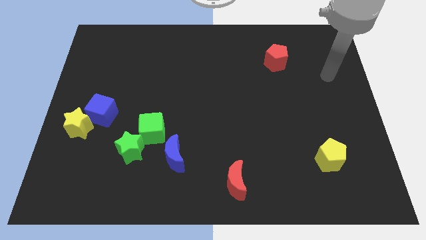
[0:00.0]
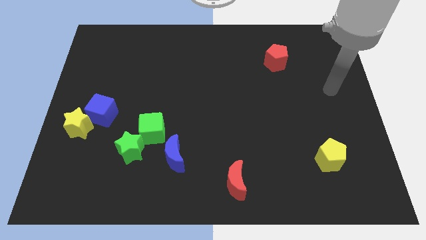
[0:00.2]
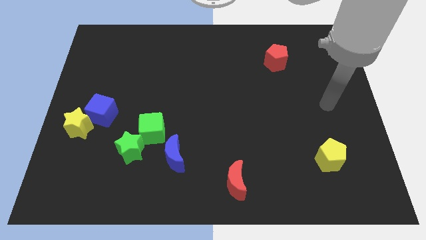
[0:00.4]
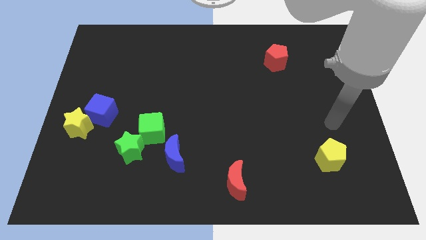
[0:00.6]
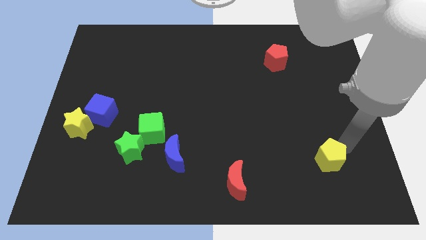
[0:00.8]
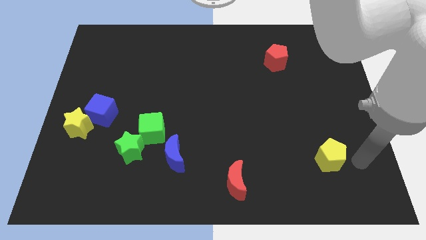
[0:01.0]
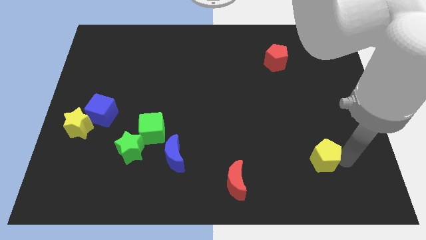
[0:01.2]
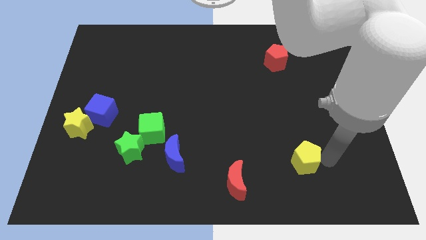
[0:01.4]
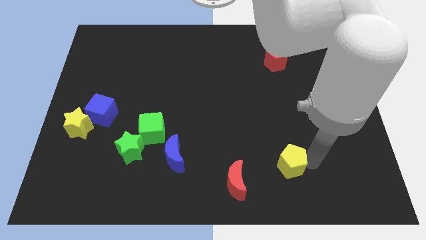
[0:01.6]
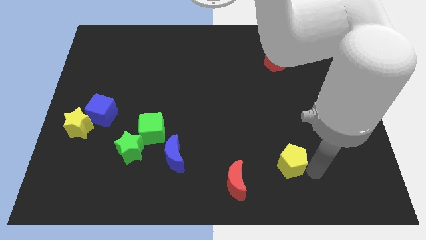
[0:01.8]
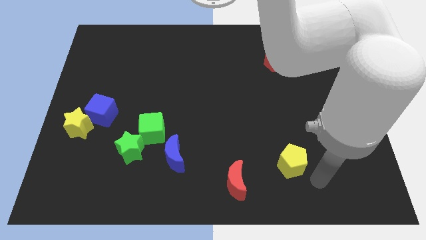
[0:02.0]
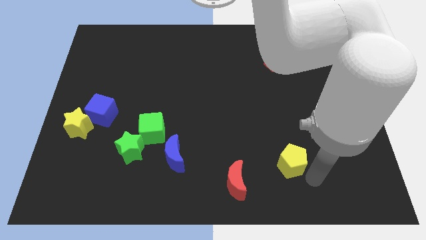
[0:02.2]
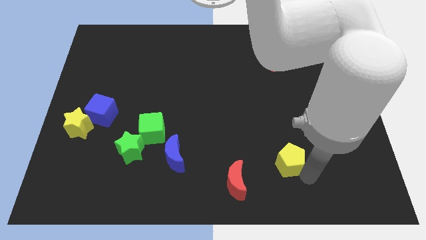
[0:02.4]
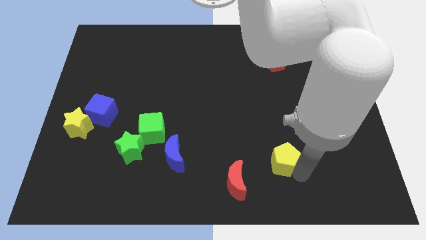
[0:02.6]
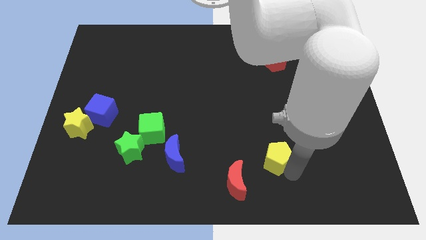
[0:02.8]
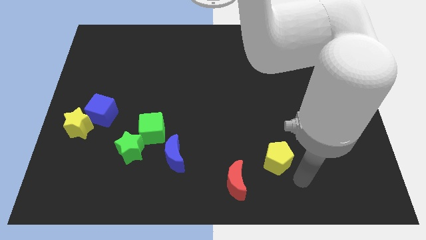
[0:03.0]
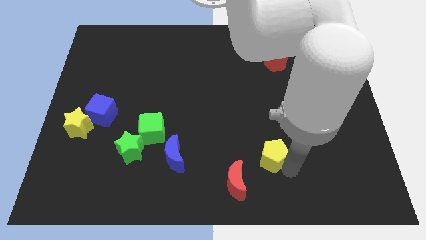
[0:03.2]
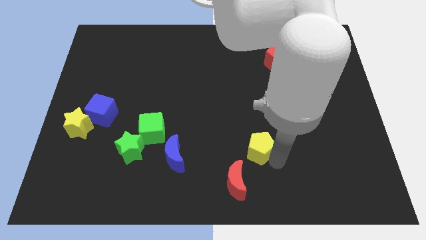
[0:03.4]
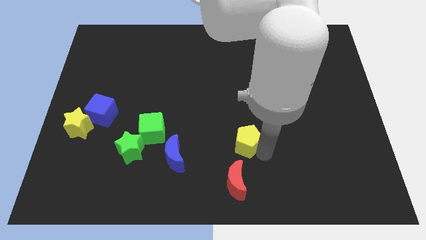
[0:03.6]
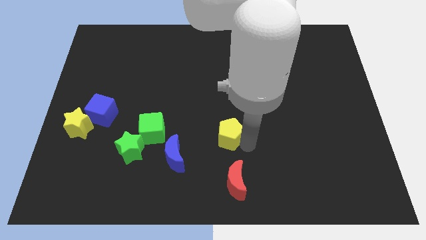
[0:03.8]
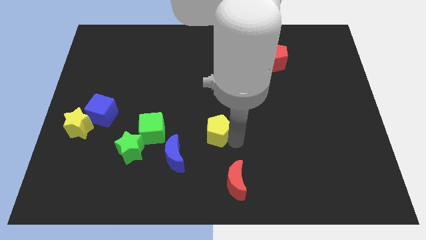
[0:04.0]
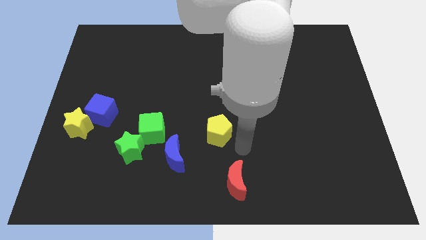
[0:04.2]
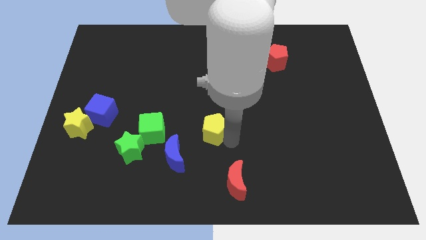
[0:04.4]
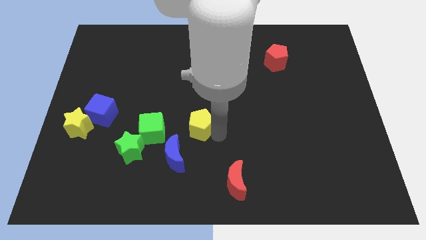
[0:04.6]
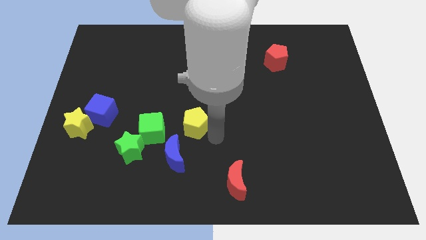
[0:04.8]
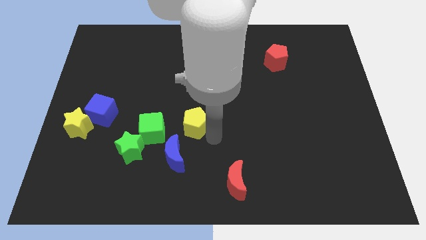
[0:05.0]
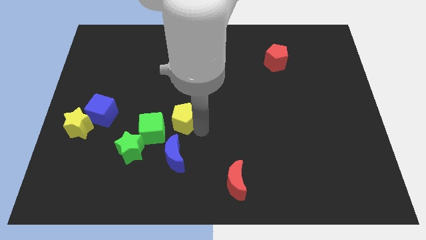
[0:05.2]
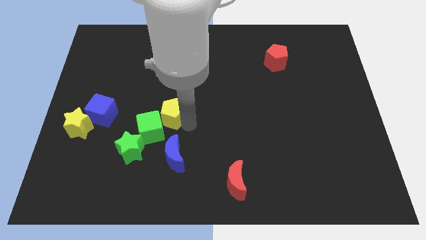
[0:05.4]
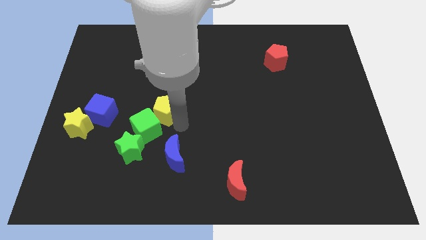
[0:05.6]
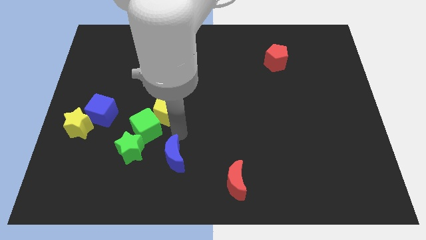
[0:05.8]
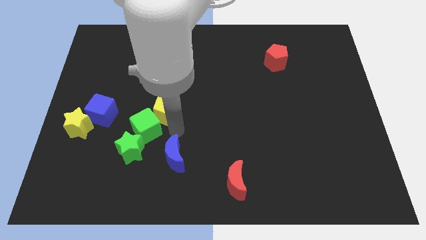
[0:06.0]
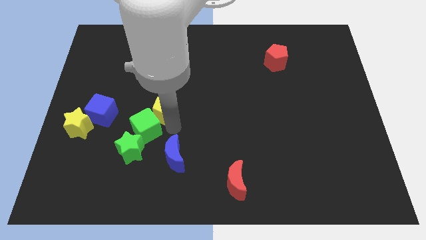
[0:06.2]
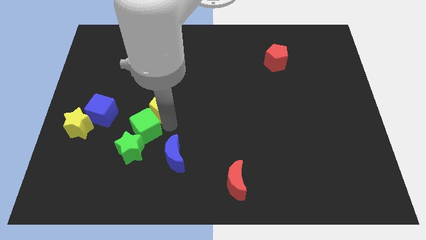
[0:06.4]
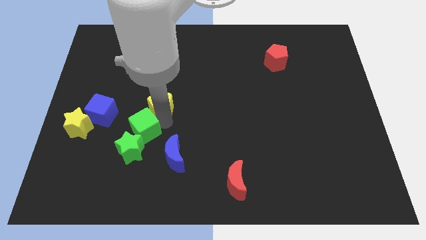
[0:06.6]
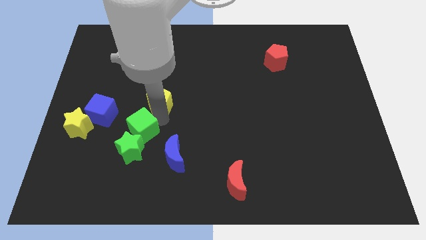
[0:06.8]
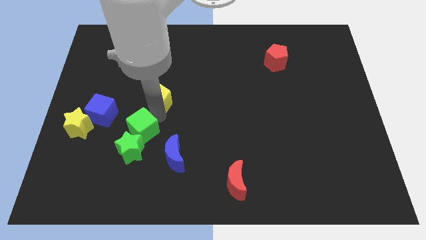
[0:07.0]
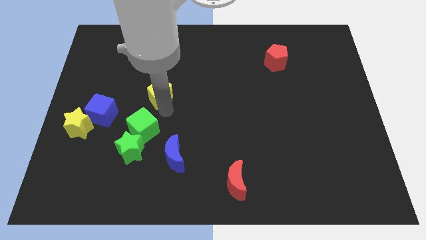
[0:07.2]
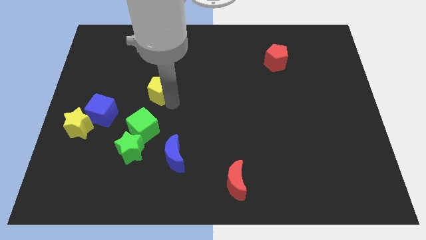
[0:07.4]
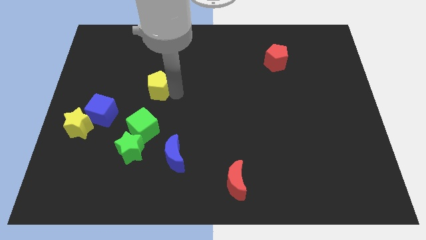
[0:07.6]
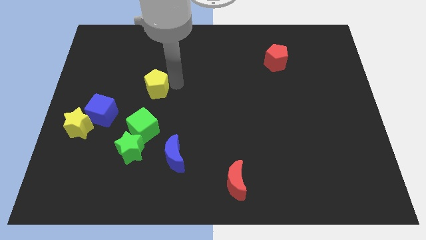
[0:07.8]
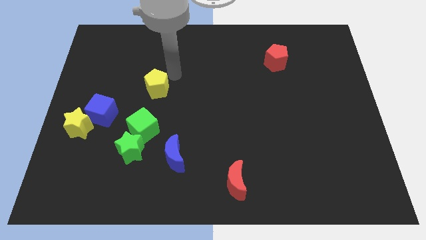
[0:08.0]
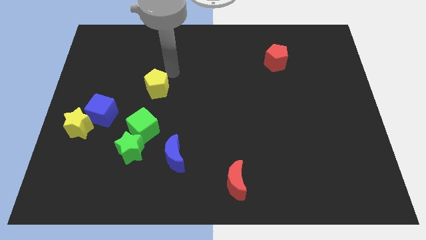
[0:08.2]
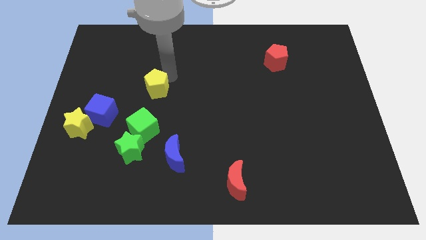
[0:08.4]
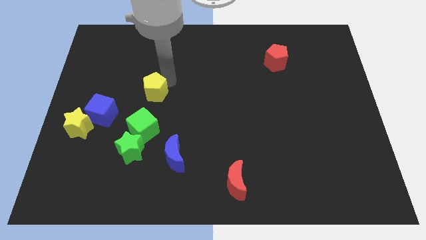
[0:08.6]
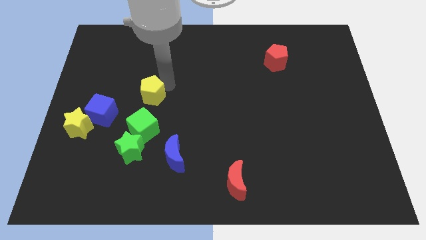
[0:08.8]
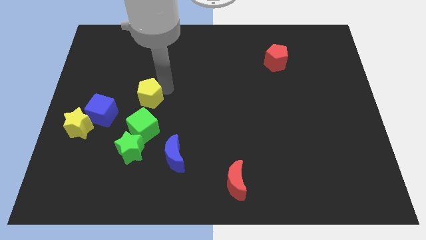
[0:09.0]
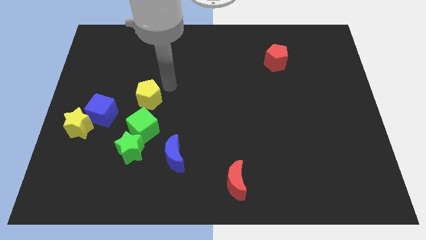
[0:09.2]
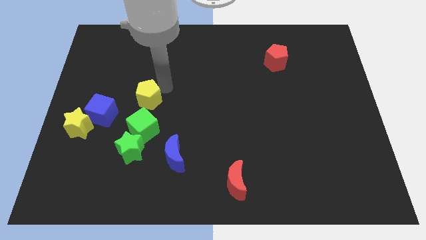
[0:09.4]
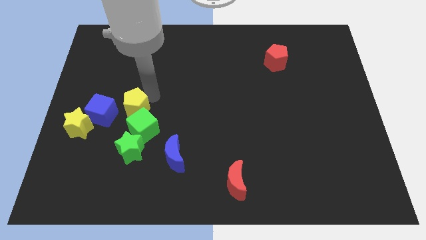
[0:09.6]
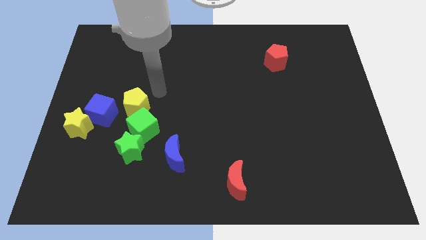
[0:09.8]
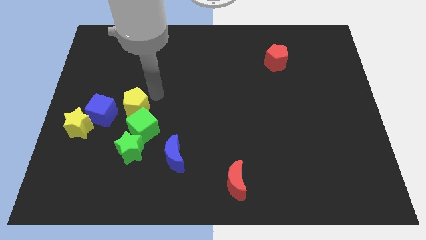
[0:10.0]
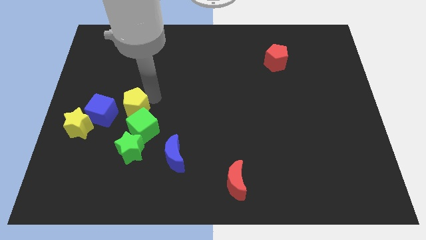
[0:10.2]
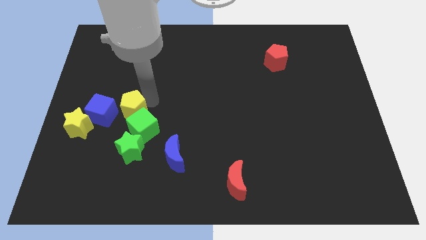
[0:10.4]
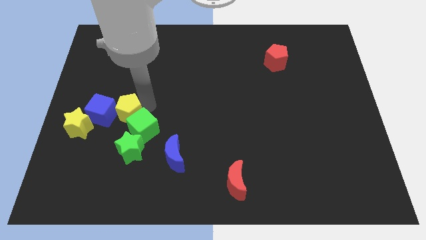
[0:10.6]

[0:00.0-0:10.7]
put the yellow pentagon to the left of the green cube

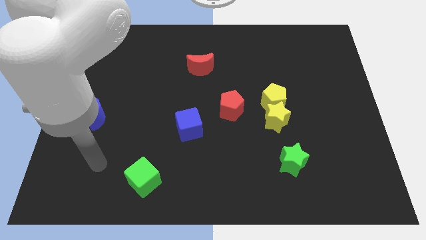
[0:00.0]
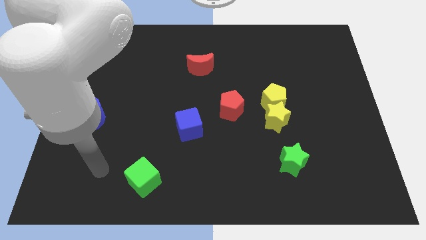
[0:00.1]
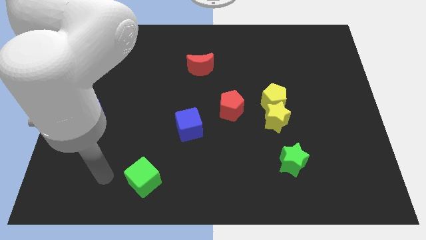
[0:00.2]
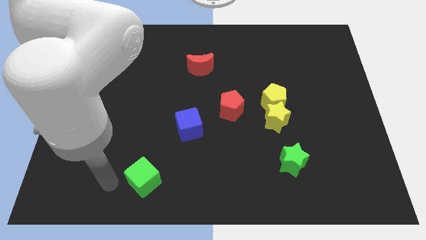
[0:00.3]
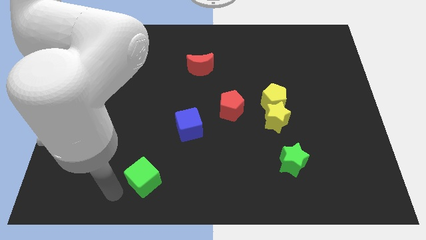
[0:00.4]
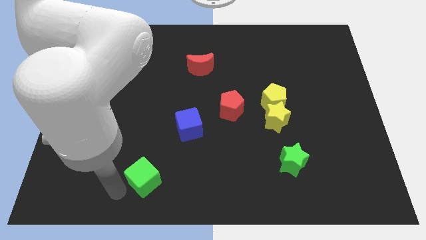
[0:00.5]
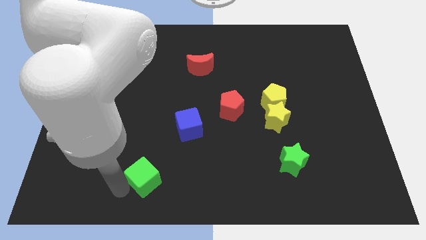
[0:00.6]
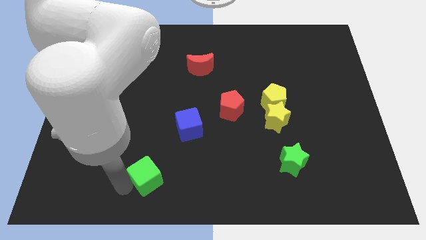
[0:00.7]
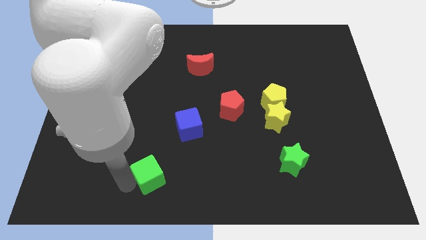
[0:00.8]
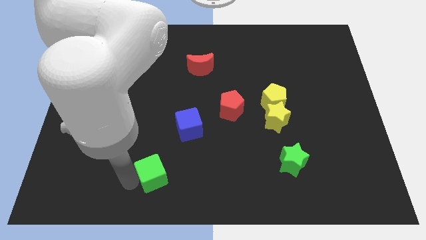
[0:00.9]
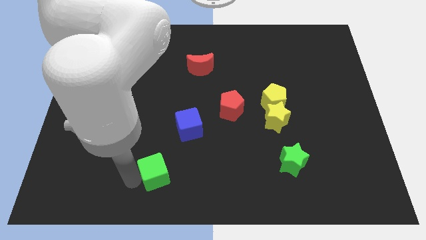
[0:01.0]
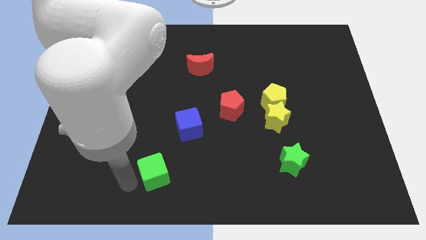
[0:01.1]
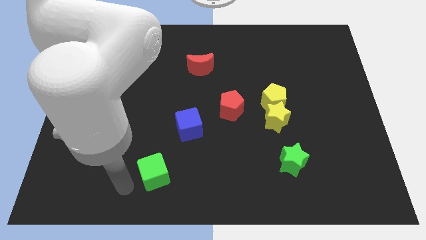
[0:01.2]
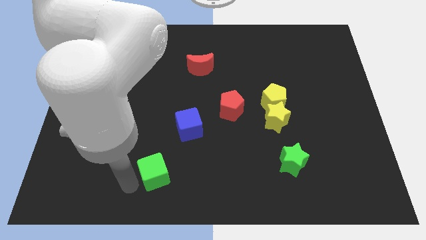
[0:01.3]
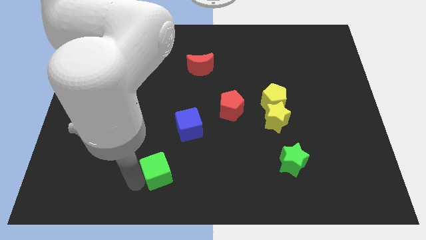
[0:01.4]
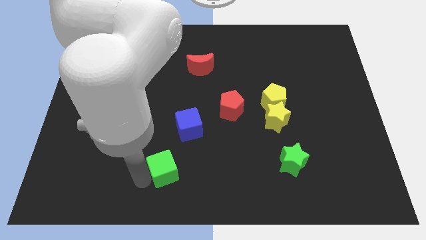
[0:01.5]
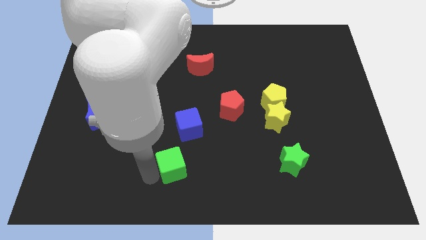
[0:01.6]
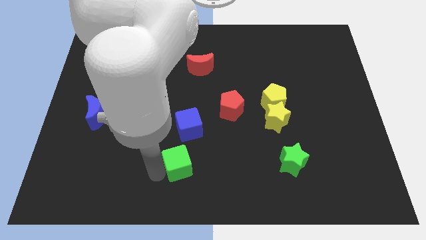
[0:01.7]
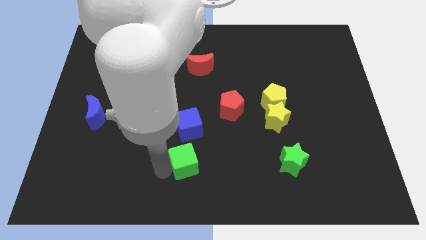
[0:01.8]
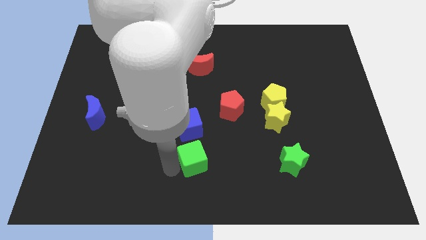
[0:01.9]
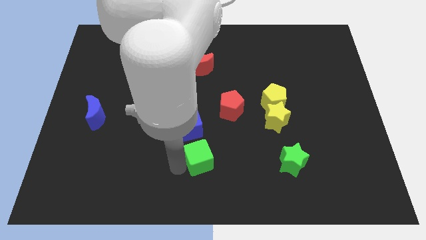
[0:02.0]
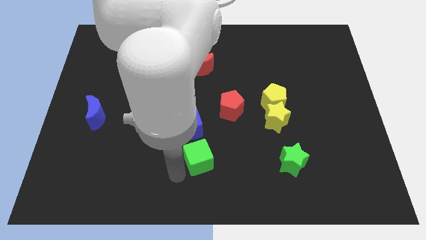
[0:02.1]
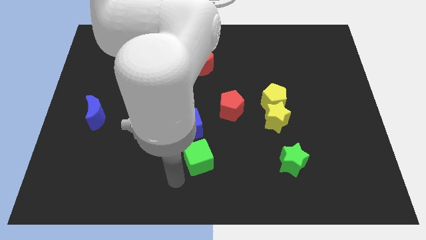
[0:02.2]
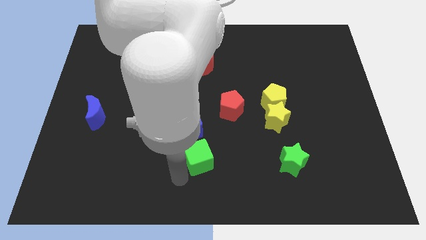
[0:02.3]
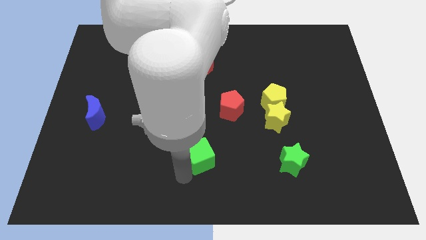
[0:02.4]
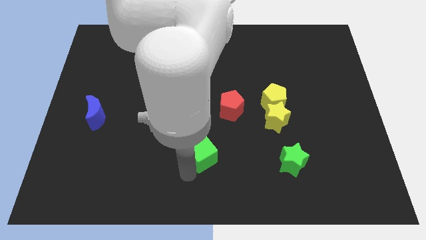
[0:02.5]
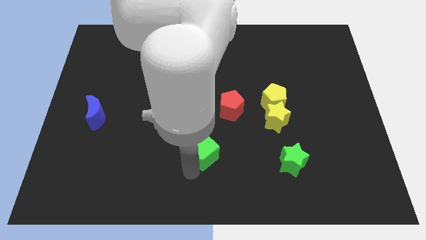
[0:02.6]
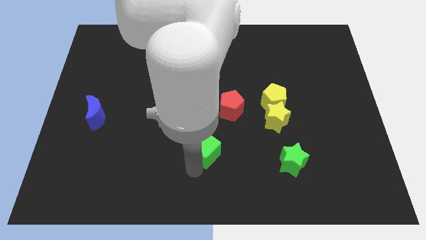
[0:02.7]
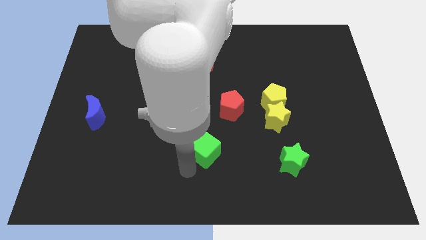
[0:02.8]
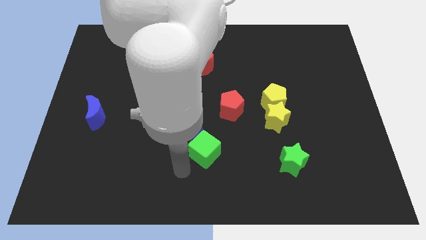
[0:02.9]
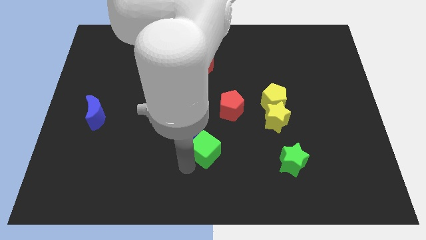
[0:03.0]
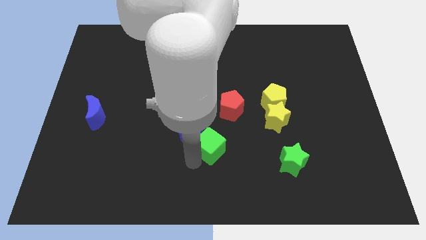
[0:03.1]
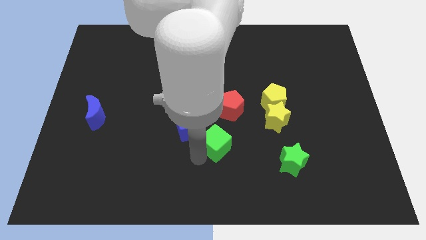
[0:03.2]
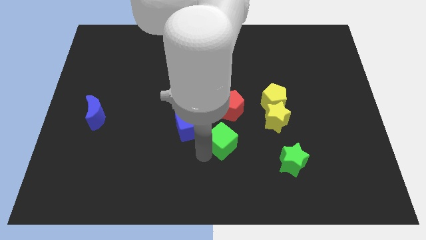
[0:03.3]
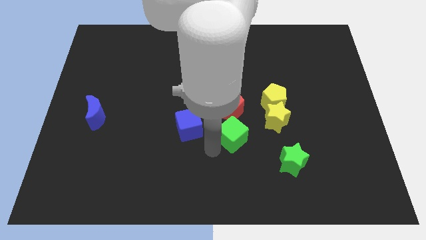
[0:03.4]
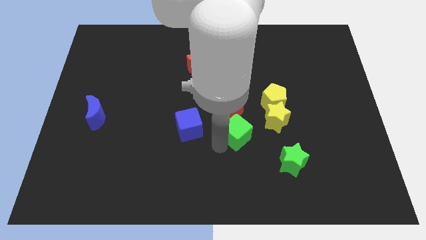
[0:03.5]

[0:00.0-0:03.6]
move the green cube to the bottom left side of the yellow pentagon
